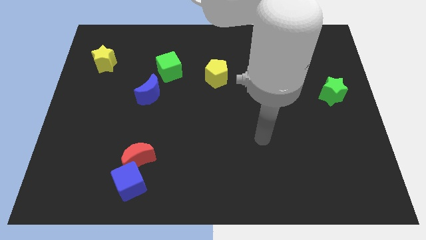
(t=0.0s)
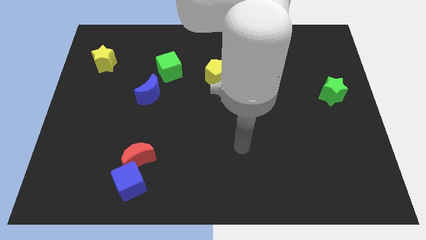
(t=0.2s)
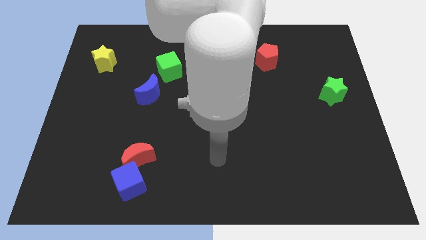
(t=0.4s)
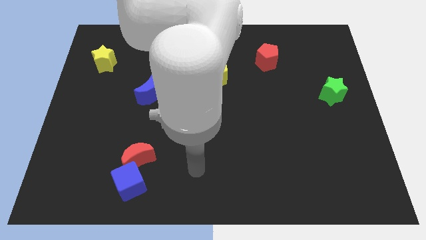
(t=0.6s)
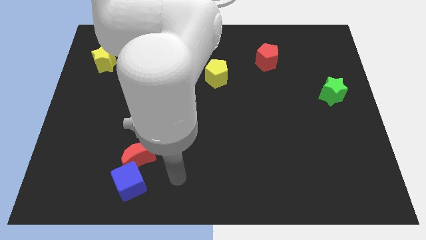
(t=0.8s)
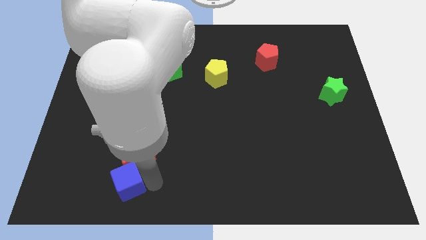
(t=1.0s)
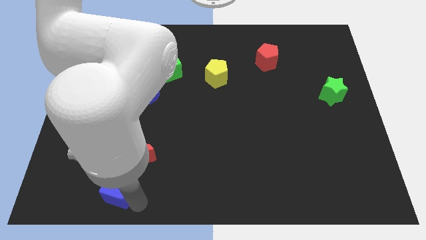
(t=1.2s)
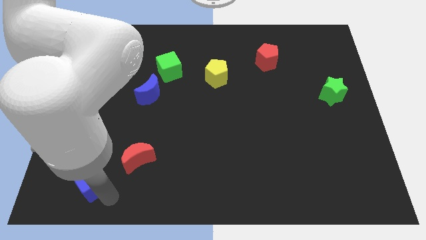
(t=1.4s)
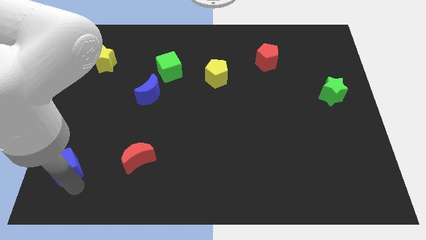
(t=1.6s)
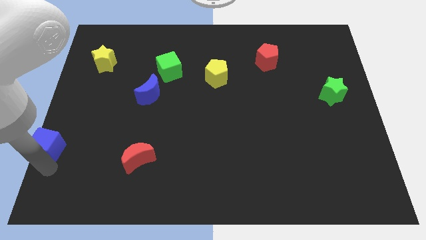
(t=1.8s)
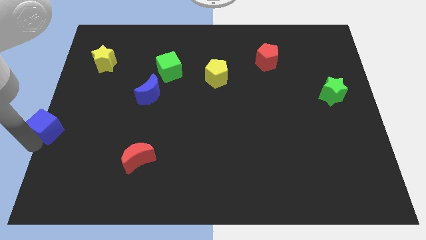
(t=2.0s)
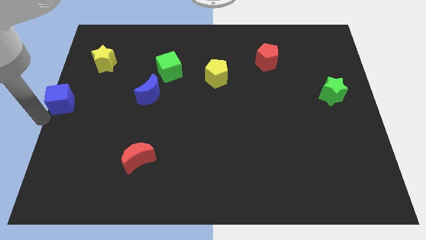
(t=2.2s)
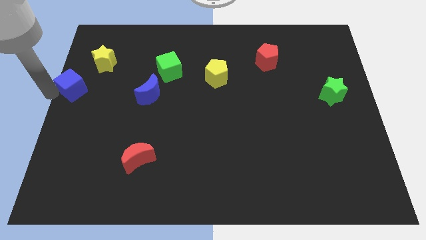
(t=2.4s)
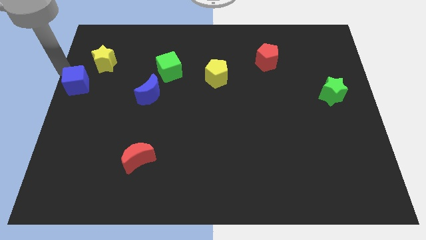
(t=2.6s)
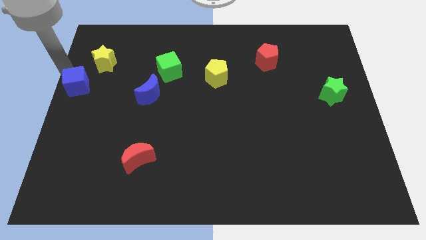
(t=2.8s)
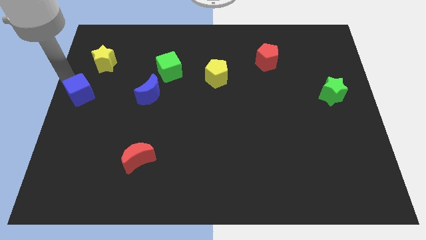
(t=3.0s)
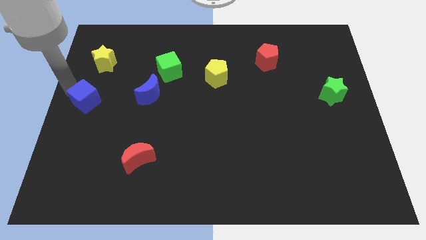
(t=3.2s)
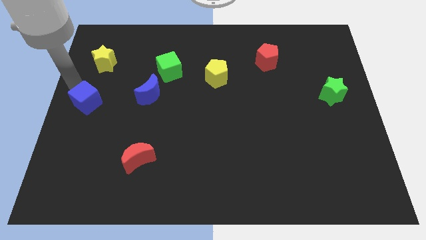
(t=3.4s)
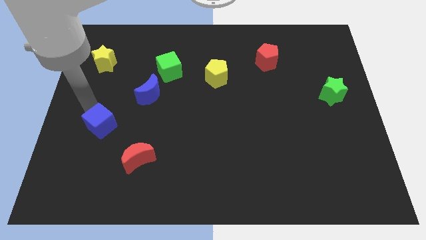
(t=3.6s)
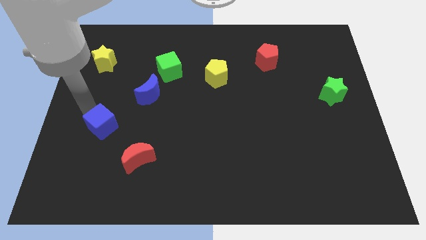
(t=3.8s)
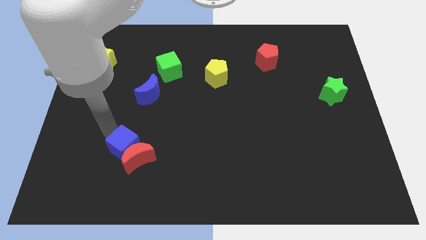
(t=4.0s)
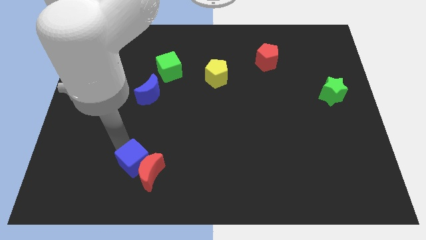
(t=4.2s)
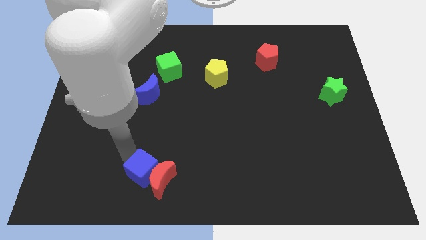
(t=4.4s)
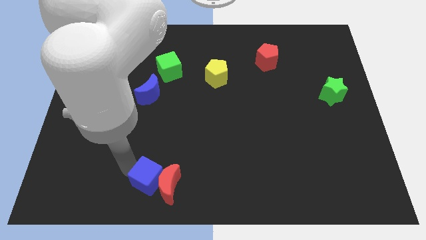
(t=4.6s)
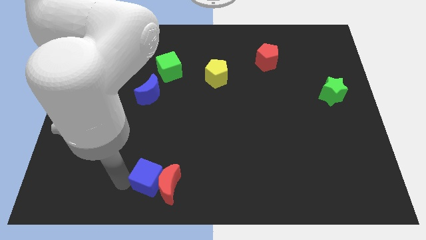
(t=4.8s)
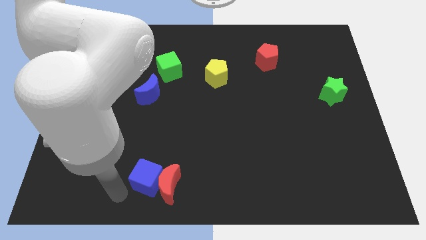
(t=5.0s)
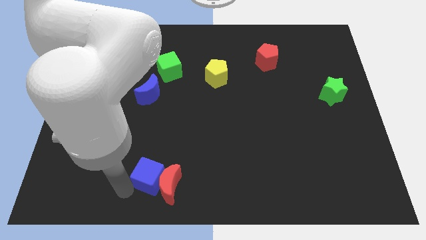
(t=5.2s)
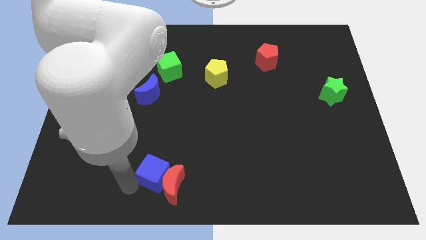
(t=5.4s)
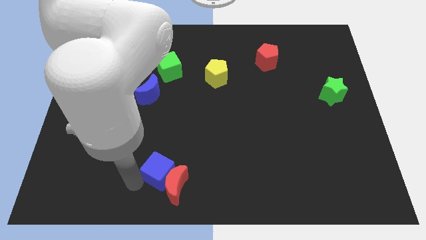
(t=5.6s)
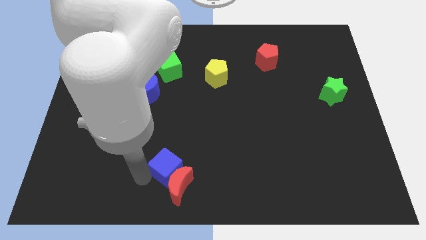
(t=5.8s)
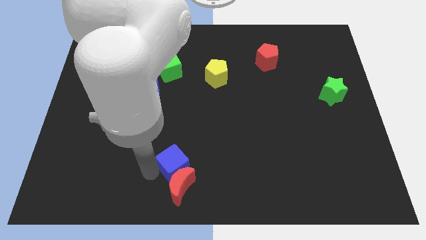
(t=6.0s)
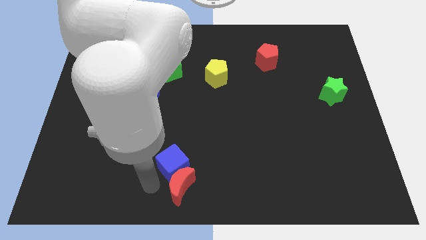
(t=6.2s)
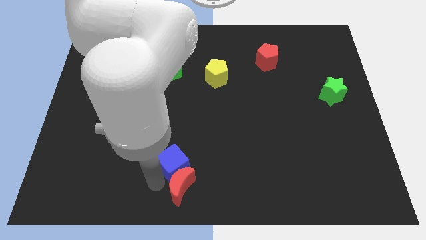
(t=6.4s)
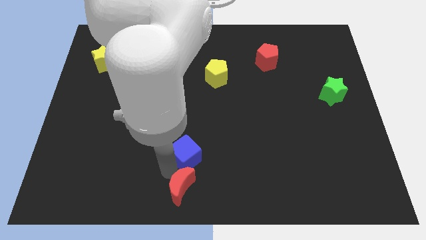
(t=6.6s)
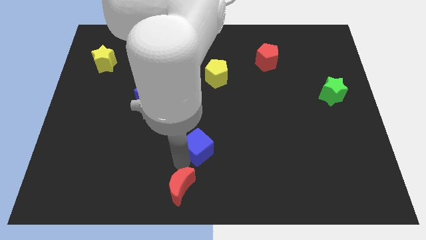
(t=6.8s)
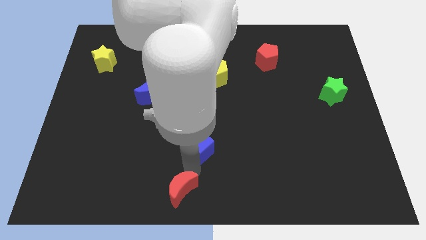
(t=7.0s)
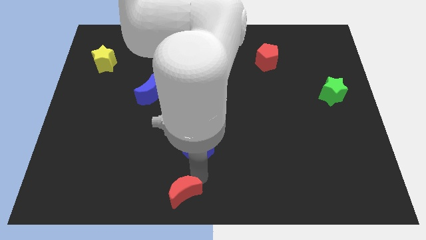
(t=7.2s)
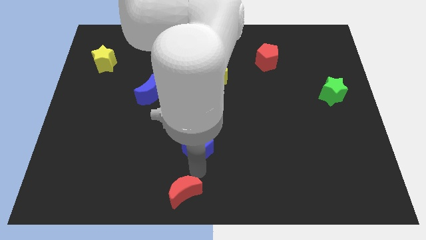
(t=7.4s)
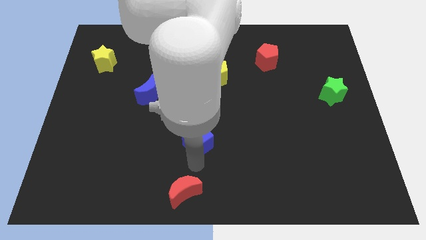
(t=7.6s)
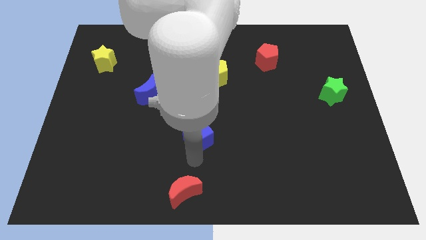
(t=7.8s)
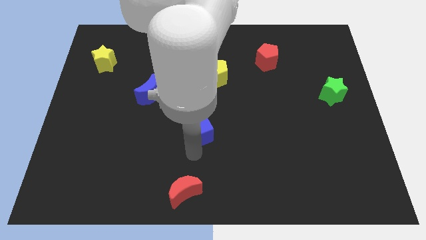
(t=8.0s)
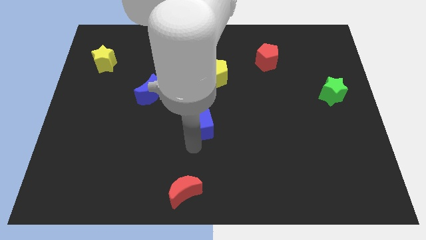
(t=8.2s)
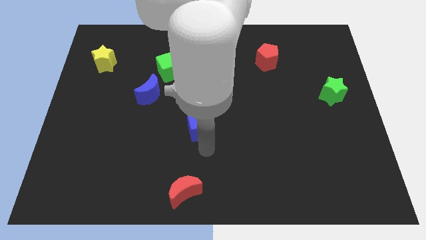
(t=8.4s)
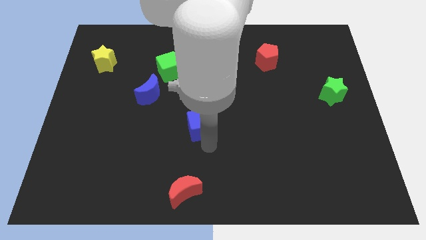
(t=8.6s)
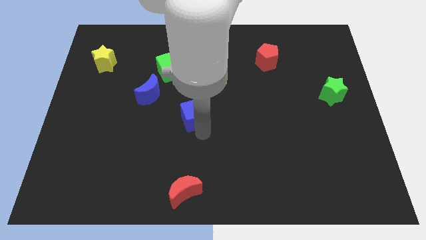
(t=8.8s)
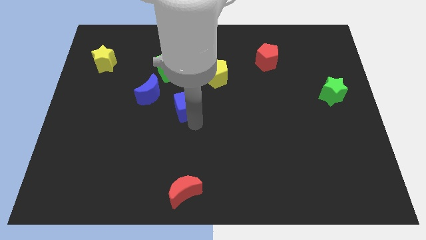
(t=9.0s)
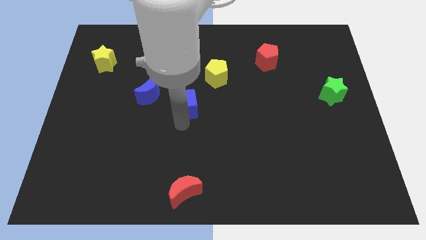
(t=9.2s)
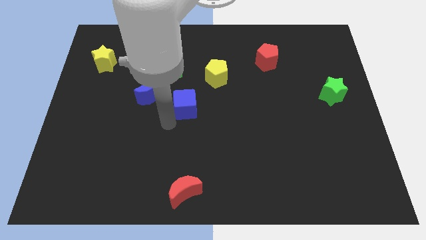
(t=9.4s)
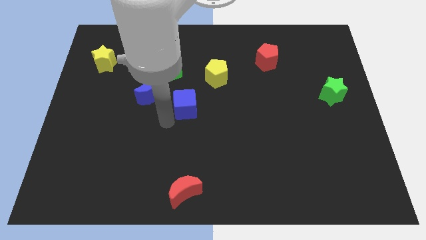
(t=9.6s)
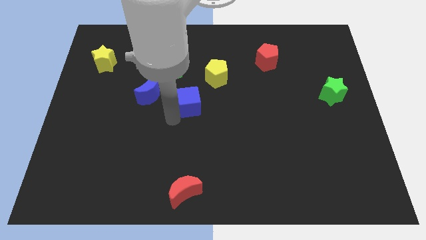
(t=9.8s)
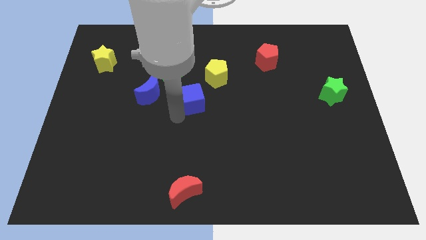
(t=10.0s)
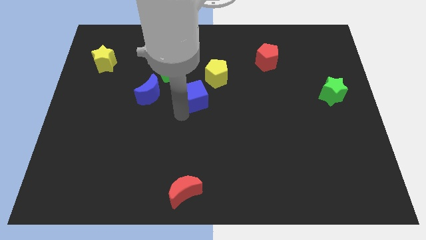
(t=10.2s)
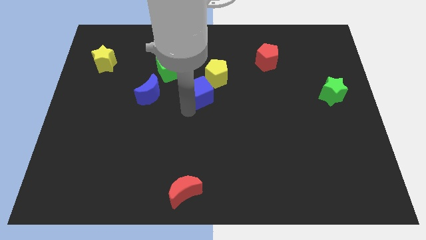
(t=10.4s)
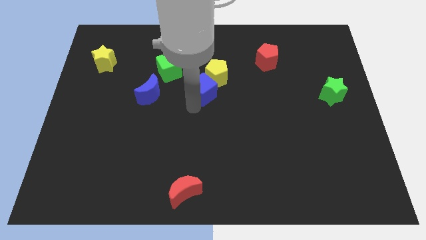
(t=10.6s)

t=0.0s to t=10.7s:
move the blue cube close to the yellow pentagon

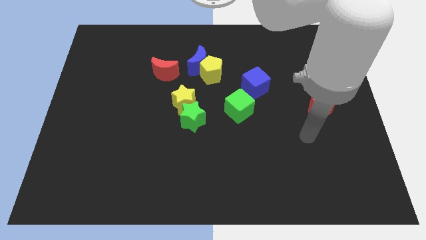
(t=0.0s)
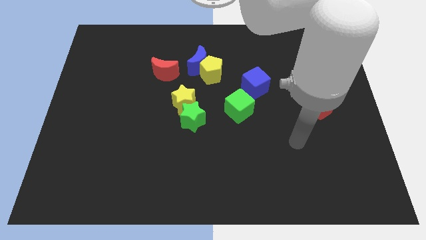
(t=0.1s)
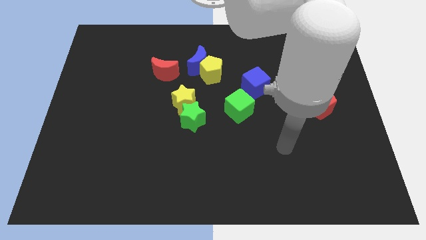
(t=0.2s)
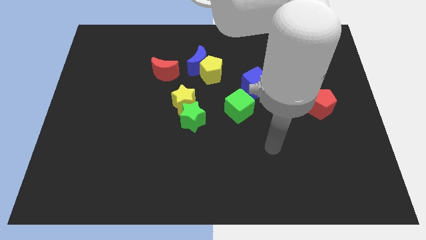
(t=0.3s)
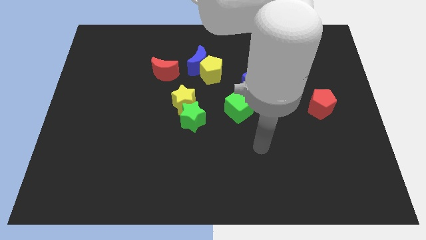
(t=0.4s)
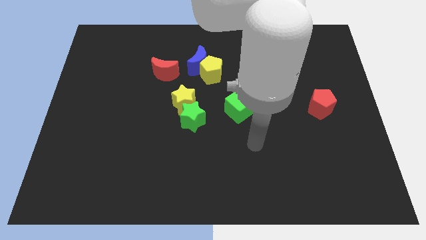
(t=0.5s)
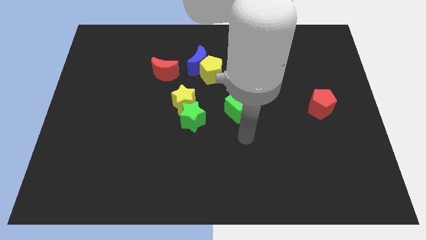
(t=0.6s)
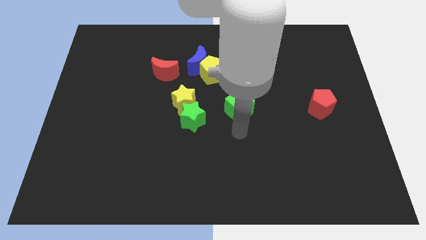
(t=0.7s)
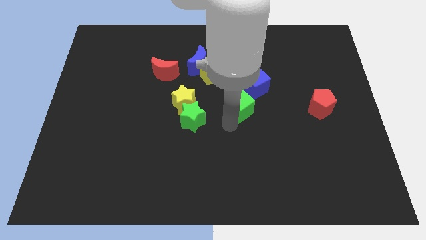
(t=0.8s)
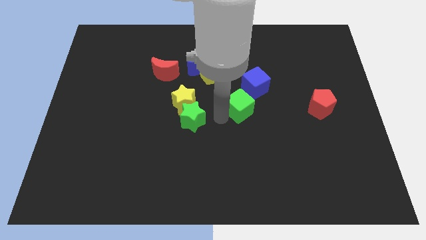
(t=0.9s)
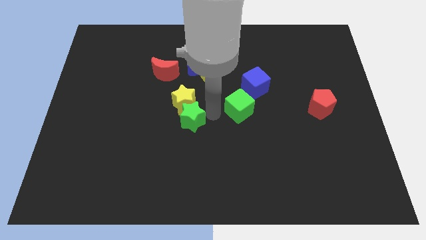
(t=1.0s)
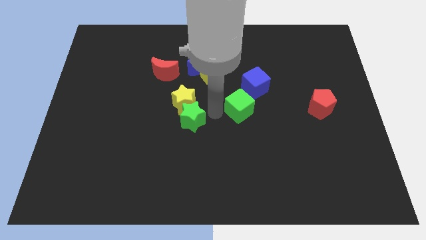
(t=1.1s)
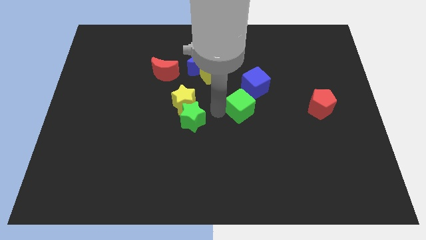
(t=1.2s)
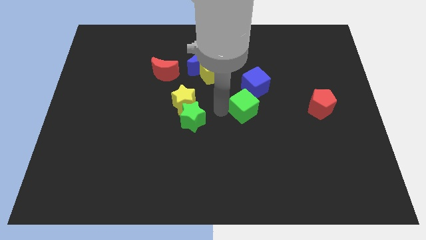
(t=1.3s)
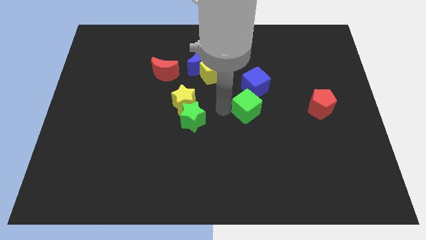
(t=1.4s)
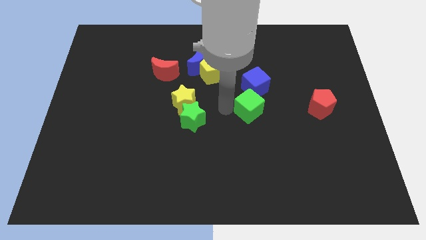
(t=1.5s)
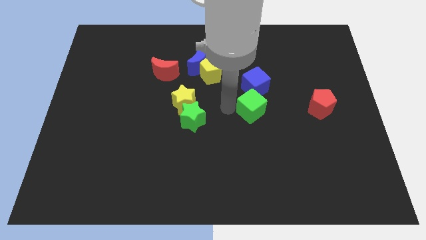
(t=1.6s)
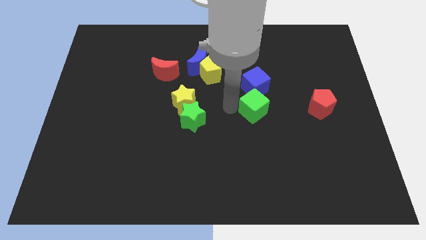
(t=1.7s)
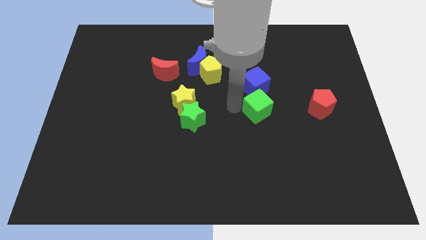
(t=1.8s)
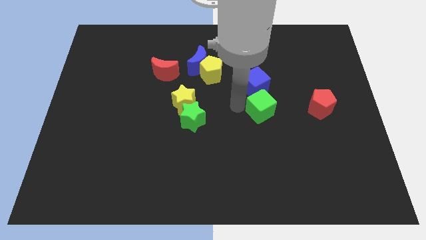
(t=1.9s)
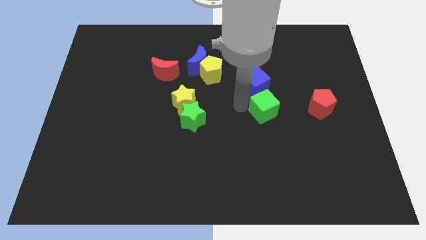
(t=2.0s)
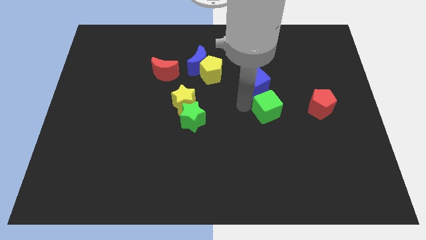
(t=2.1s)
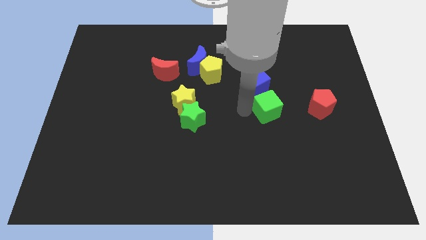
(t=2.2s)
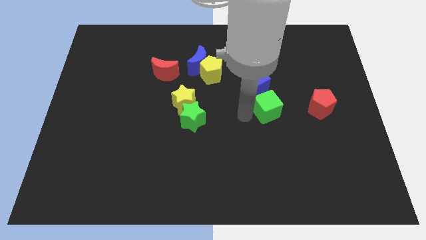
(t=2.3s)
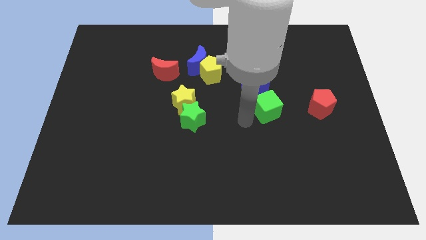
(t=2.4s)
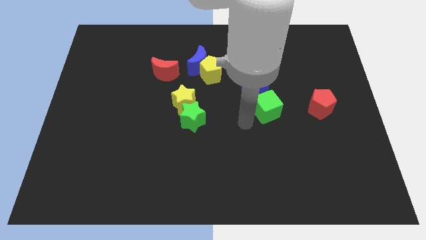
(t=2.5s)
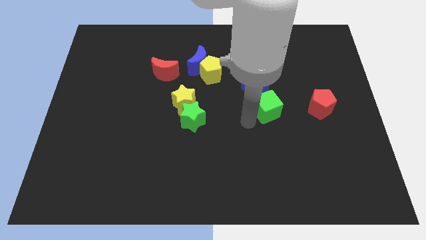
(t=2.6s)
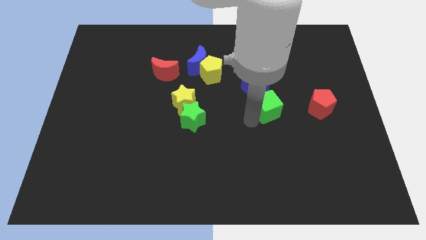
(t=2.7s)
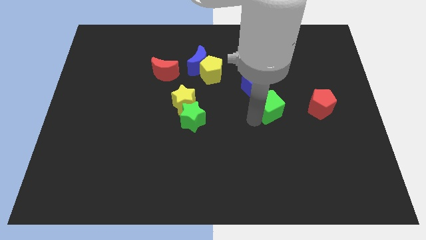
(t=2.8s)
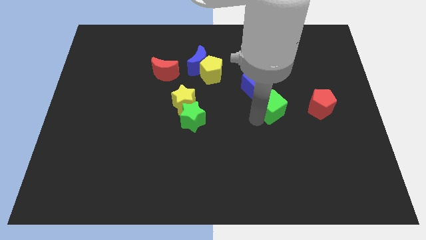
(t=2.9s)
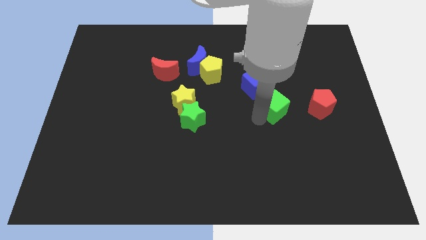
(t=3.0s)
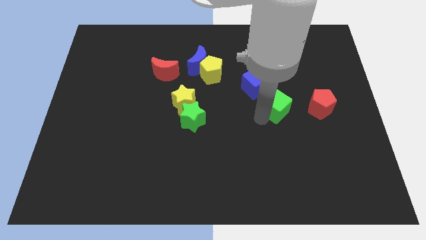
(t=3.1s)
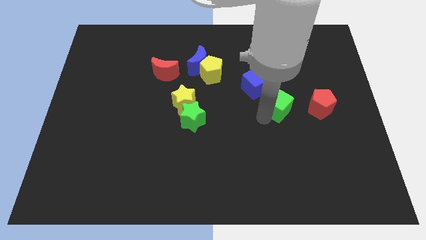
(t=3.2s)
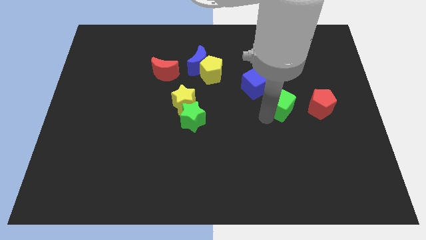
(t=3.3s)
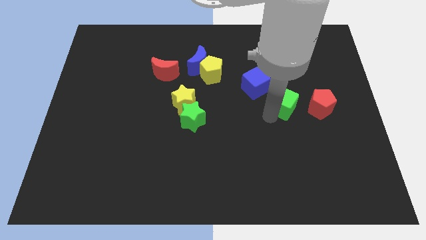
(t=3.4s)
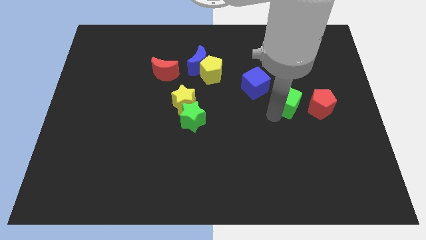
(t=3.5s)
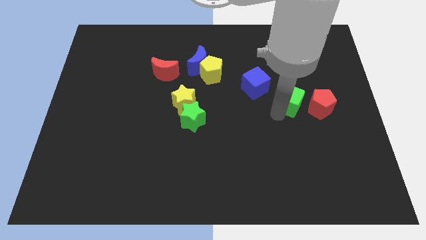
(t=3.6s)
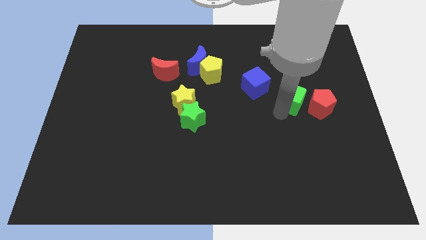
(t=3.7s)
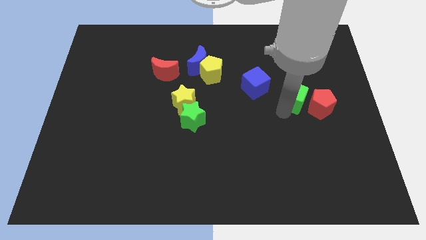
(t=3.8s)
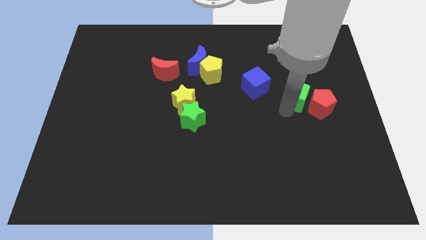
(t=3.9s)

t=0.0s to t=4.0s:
put the green cube next to the red pentagon
